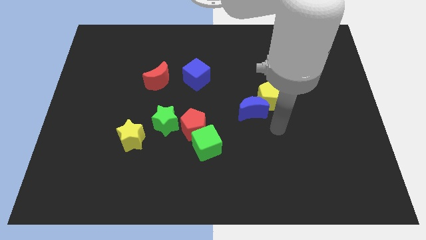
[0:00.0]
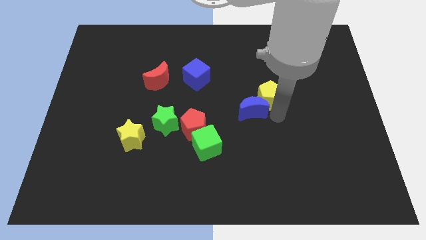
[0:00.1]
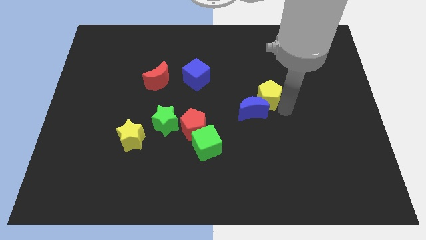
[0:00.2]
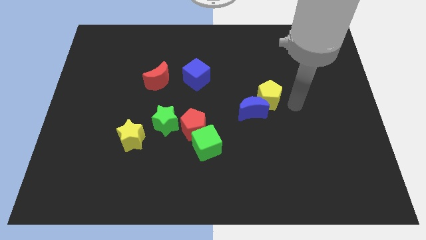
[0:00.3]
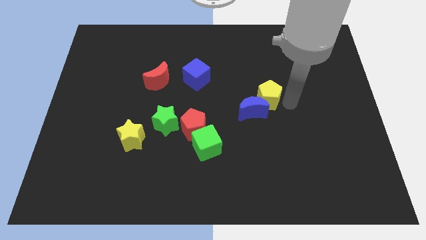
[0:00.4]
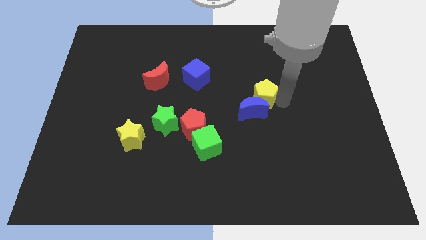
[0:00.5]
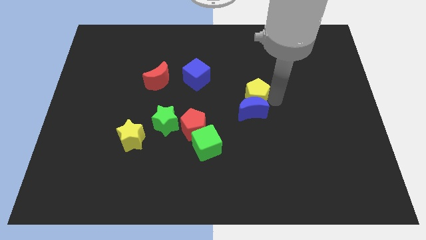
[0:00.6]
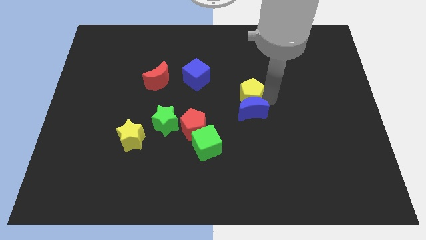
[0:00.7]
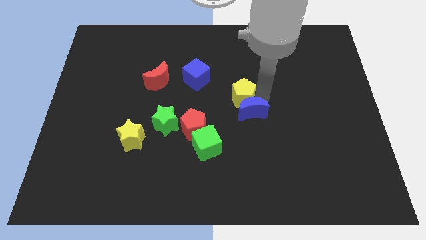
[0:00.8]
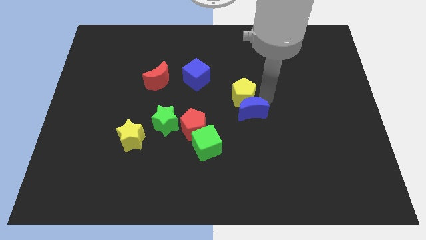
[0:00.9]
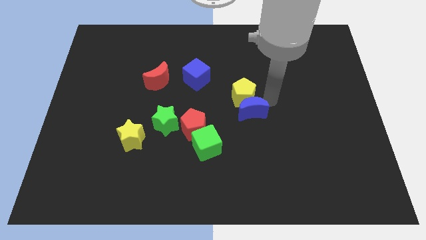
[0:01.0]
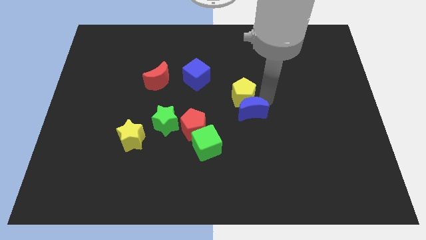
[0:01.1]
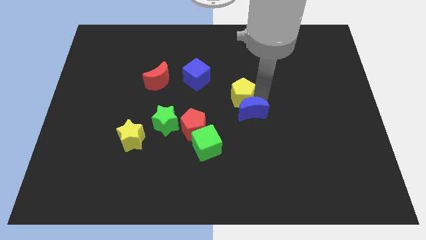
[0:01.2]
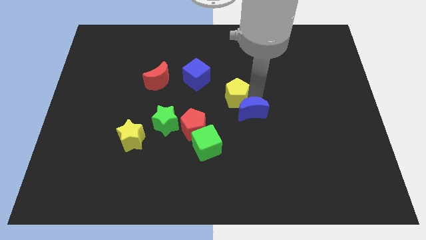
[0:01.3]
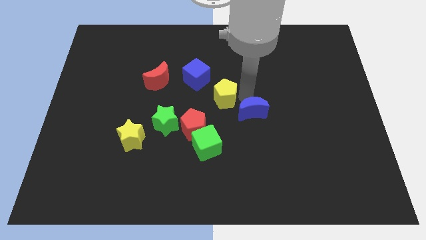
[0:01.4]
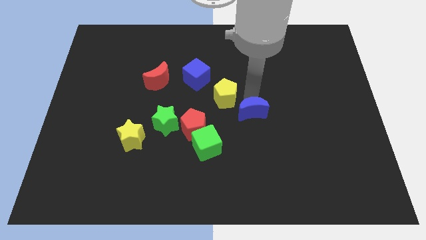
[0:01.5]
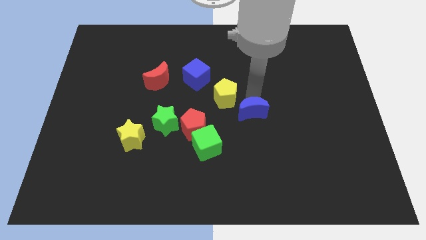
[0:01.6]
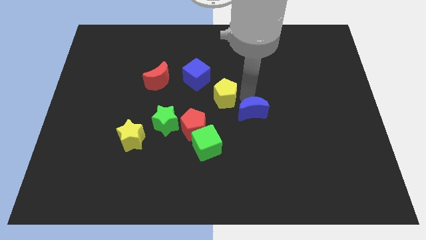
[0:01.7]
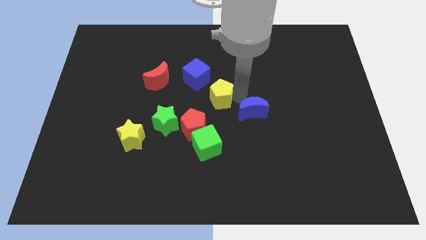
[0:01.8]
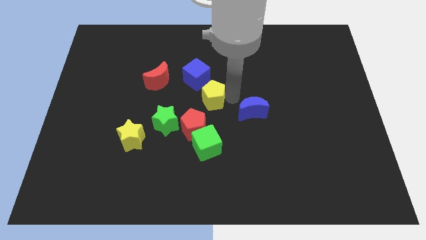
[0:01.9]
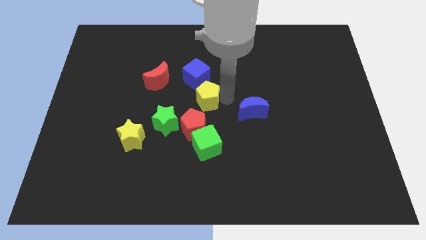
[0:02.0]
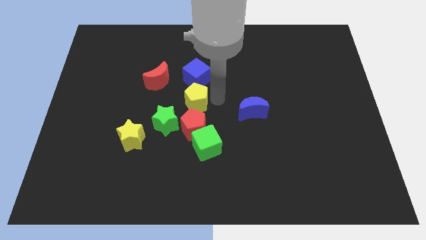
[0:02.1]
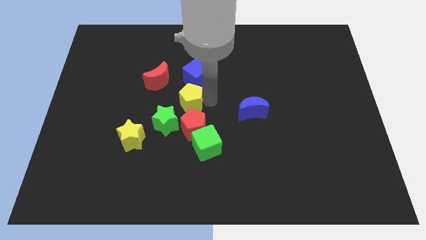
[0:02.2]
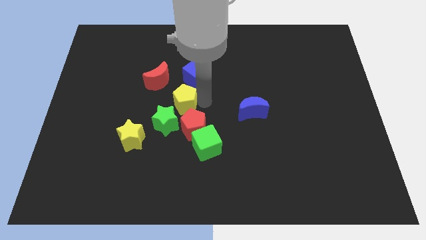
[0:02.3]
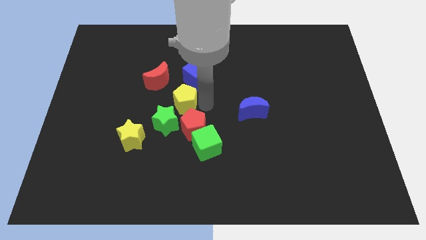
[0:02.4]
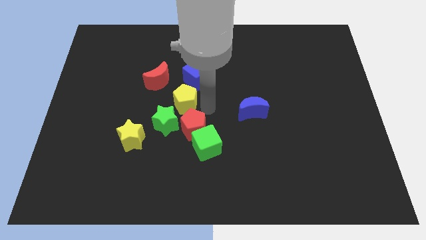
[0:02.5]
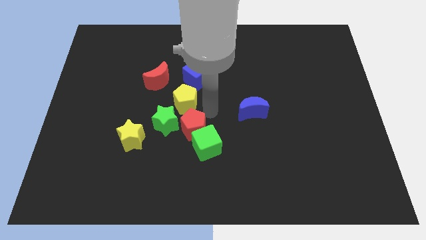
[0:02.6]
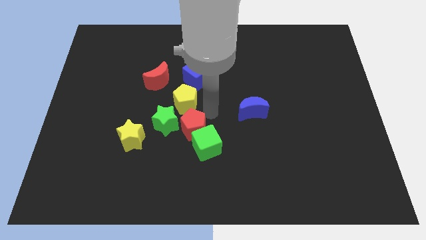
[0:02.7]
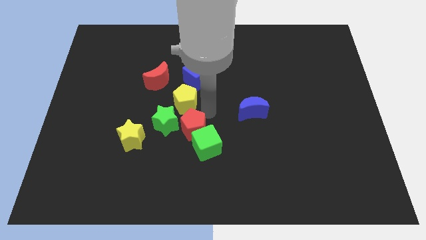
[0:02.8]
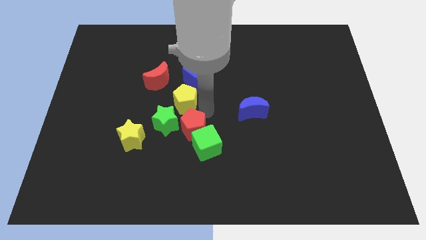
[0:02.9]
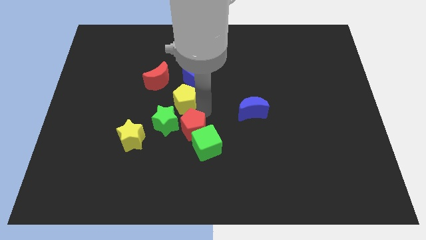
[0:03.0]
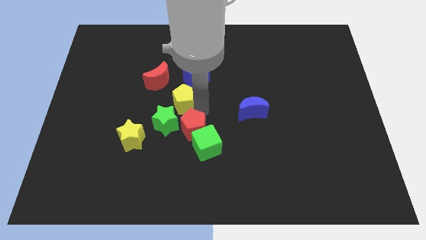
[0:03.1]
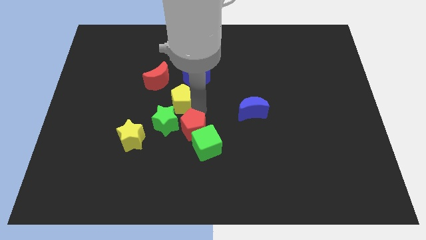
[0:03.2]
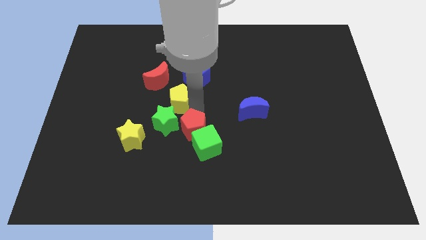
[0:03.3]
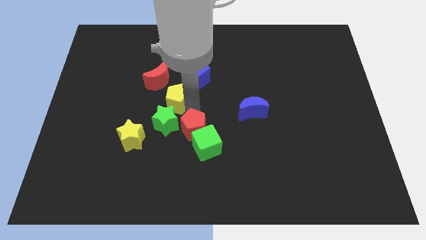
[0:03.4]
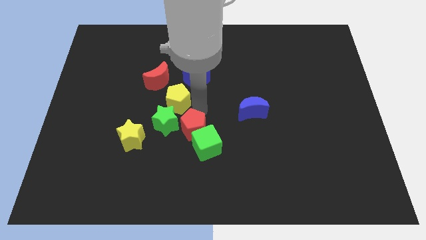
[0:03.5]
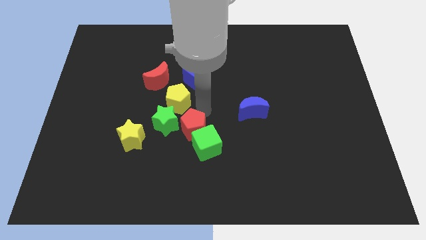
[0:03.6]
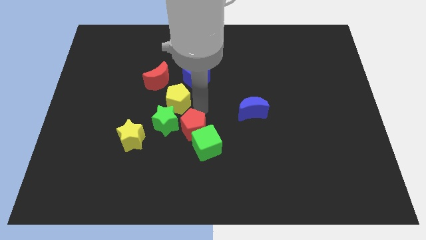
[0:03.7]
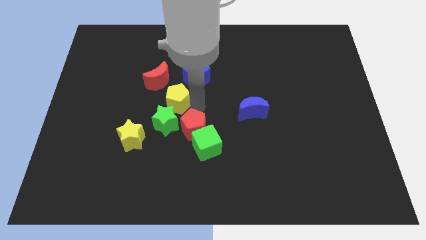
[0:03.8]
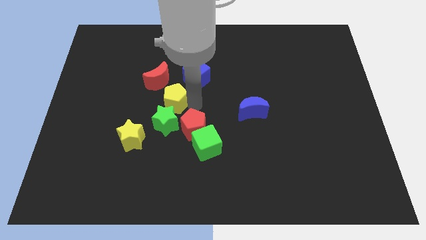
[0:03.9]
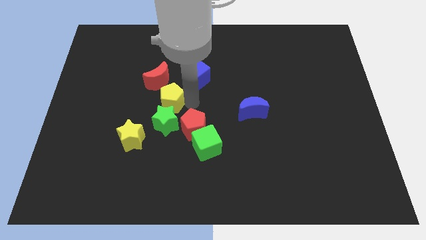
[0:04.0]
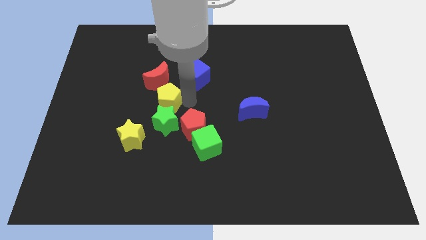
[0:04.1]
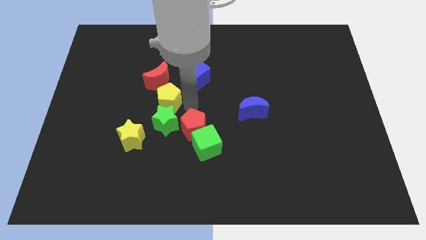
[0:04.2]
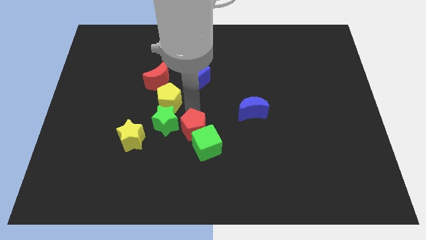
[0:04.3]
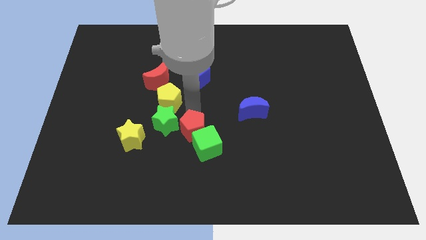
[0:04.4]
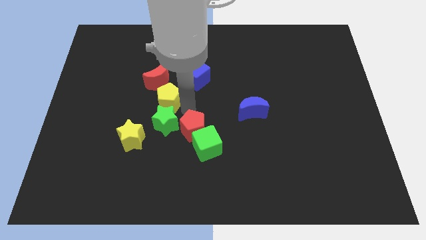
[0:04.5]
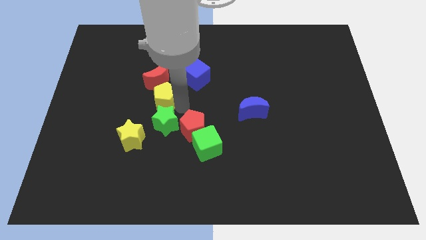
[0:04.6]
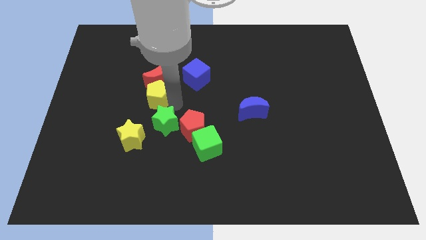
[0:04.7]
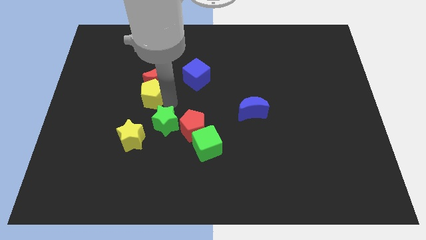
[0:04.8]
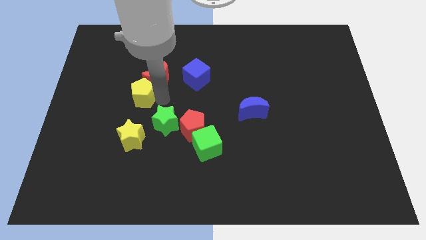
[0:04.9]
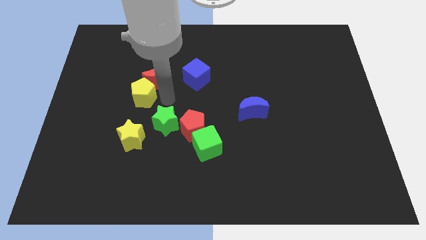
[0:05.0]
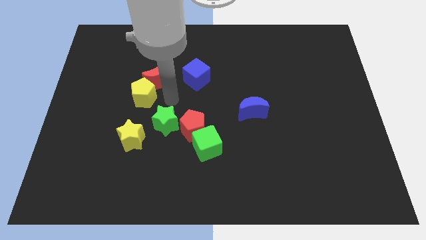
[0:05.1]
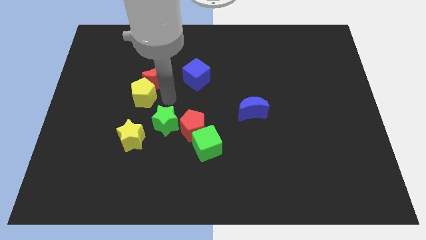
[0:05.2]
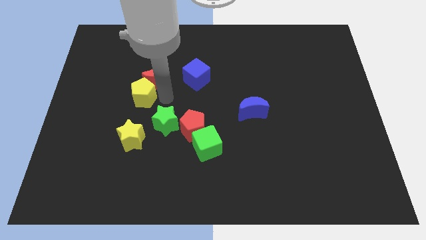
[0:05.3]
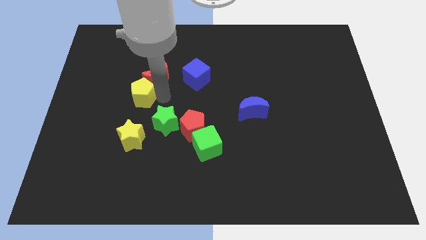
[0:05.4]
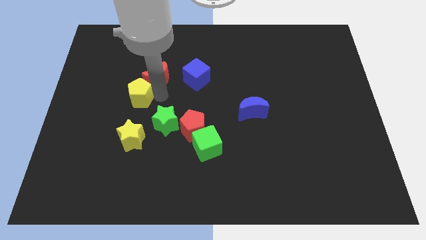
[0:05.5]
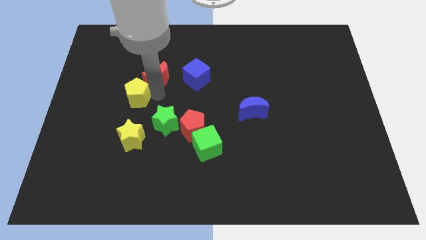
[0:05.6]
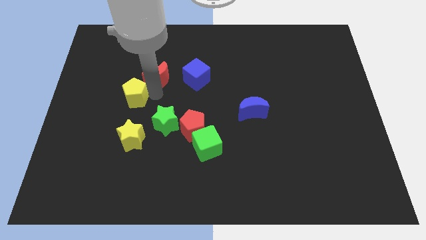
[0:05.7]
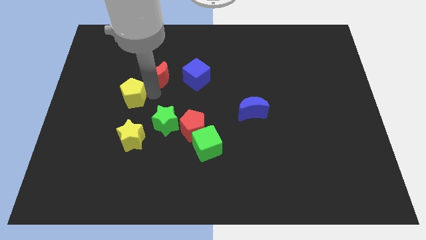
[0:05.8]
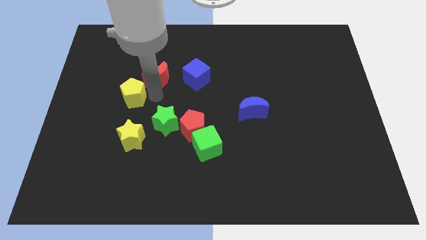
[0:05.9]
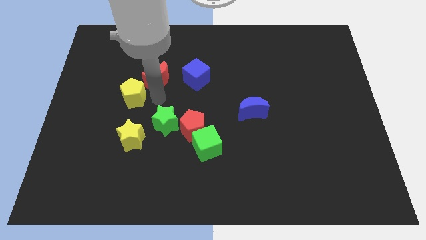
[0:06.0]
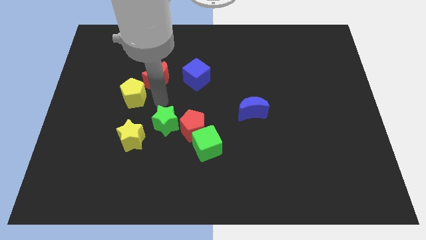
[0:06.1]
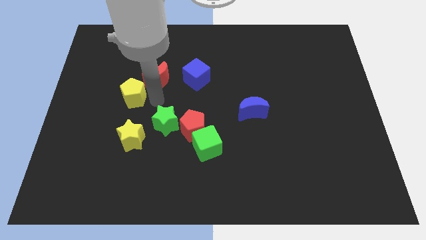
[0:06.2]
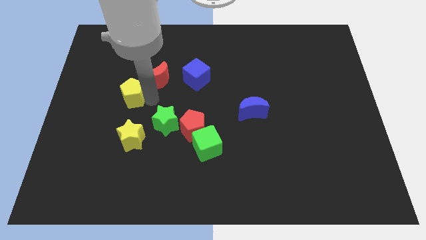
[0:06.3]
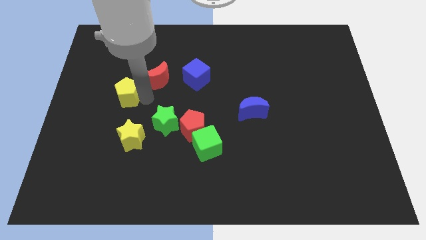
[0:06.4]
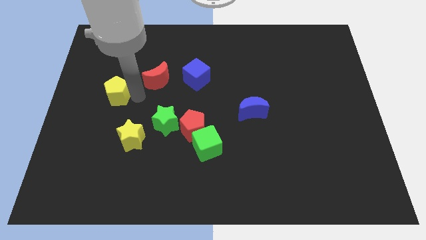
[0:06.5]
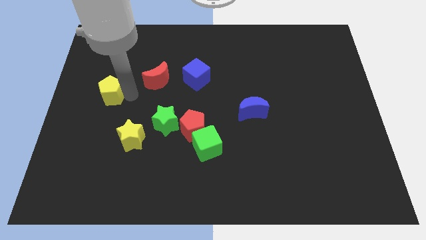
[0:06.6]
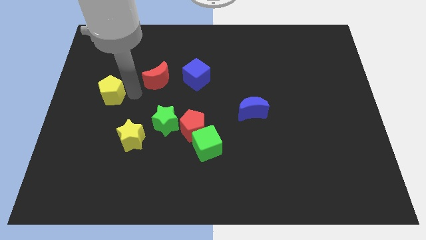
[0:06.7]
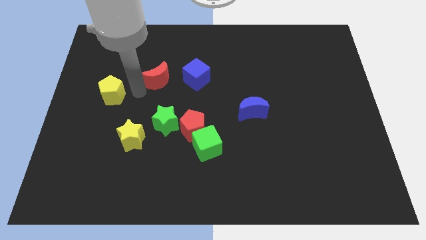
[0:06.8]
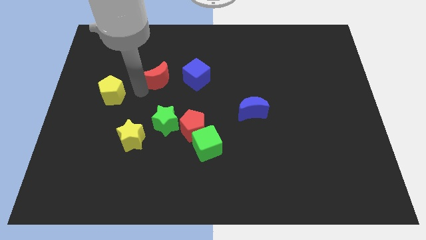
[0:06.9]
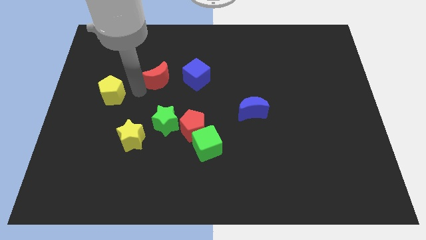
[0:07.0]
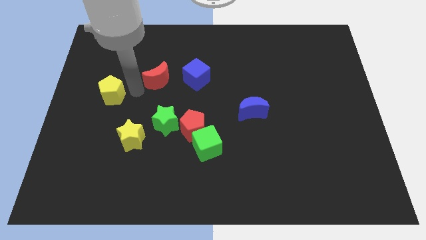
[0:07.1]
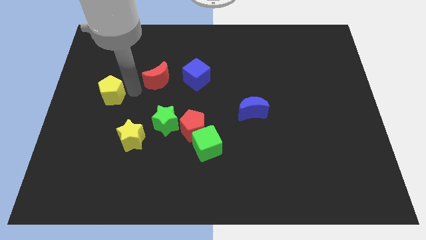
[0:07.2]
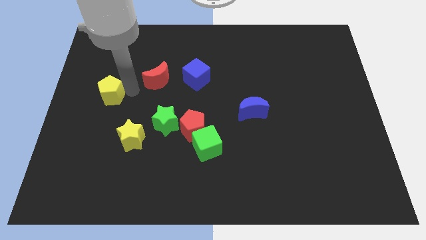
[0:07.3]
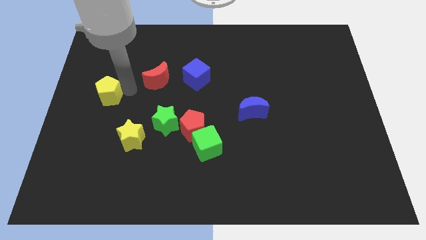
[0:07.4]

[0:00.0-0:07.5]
slide the yellow pentagon to the left side
